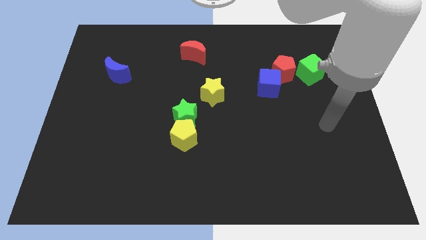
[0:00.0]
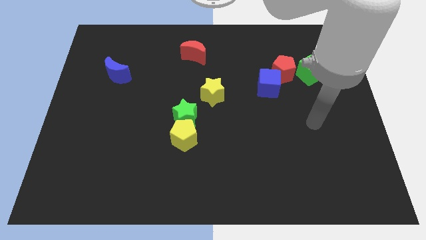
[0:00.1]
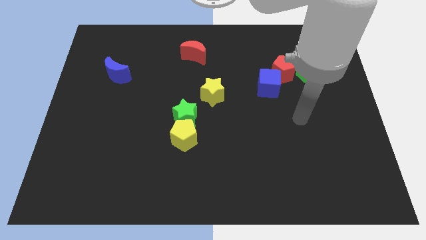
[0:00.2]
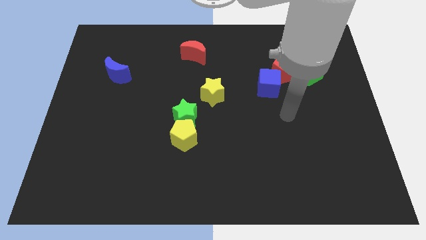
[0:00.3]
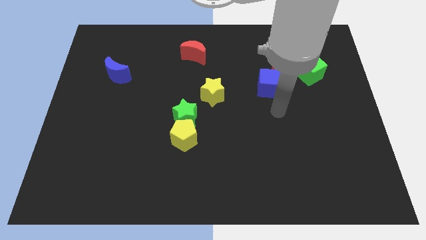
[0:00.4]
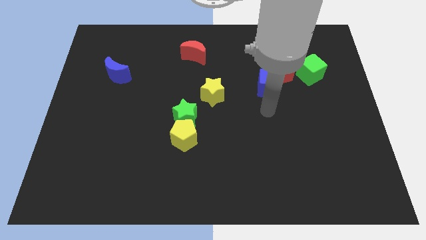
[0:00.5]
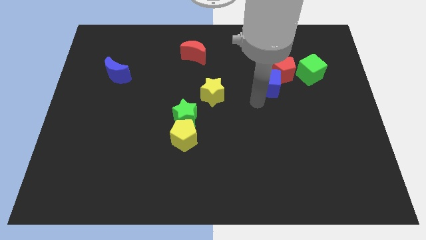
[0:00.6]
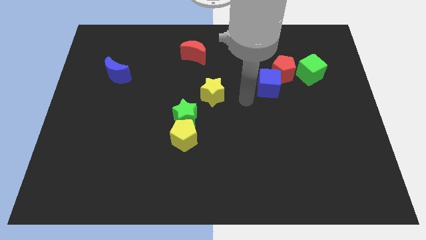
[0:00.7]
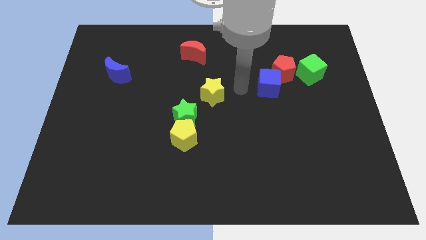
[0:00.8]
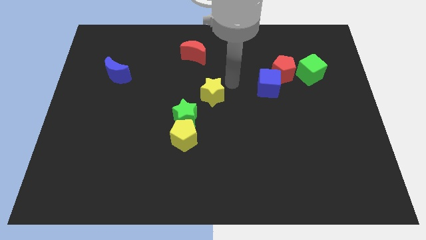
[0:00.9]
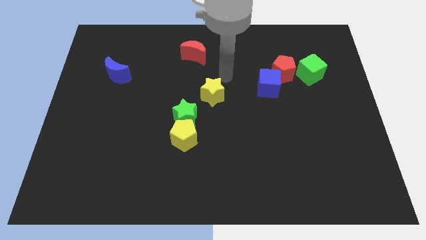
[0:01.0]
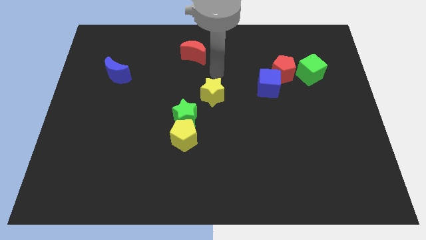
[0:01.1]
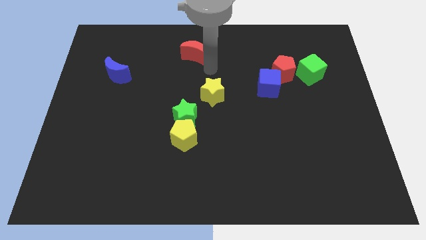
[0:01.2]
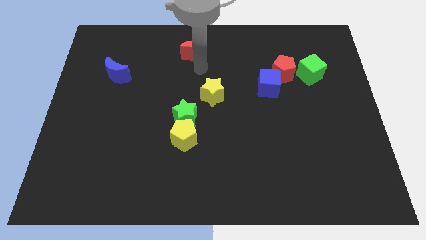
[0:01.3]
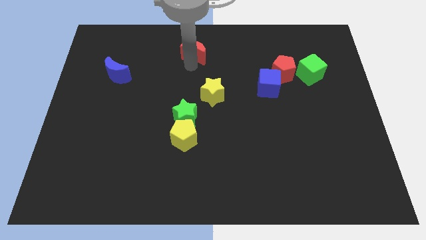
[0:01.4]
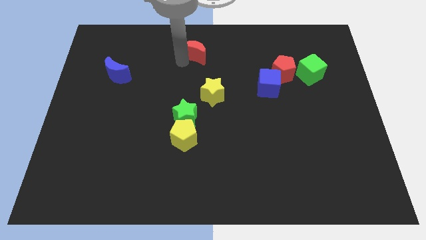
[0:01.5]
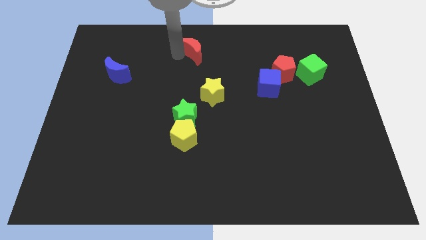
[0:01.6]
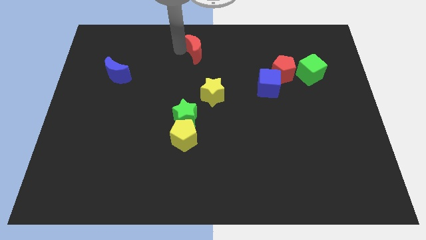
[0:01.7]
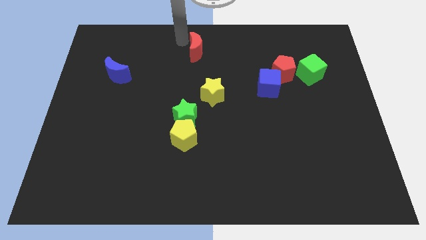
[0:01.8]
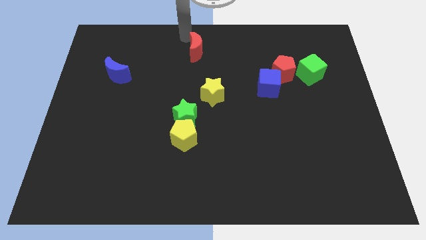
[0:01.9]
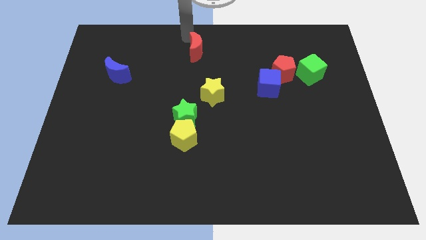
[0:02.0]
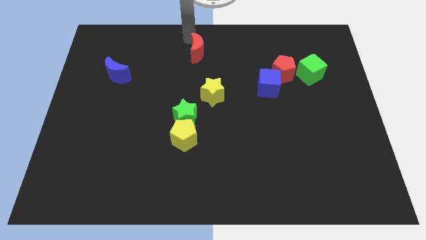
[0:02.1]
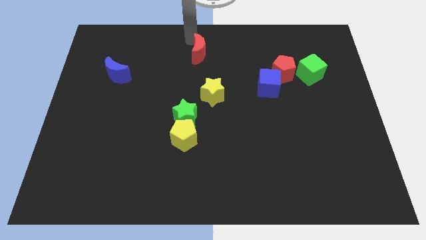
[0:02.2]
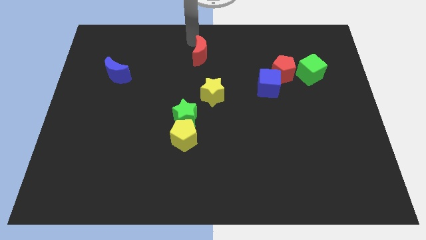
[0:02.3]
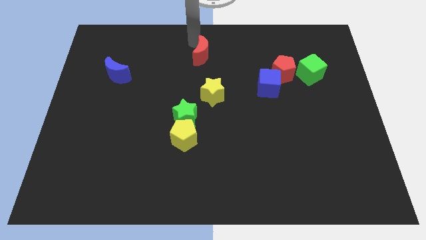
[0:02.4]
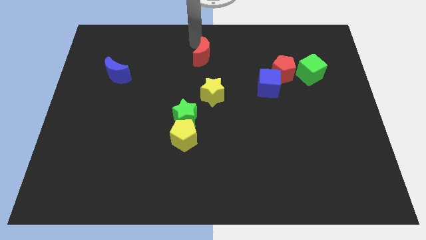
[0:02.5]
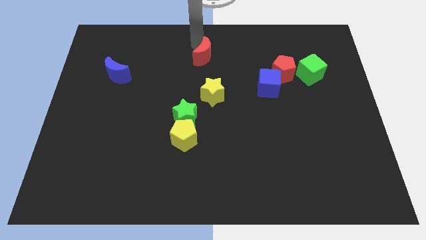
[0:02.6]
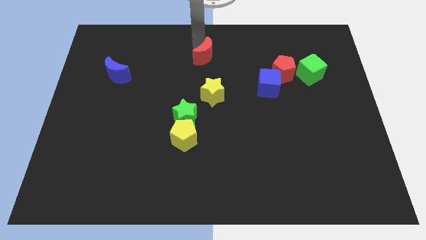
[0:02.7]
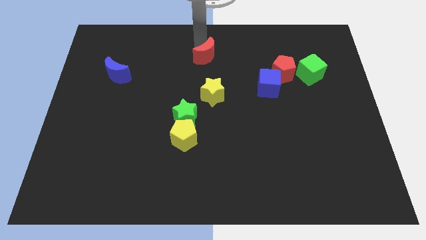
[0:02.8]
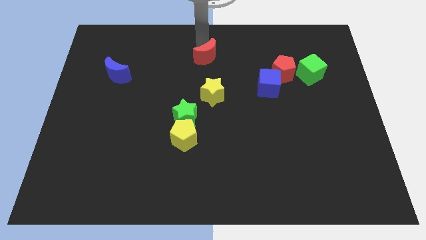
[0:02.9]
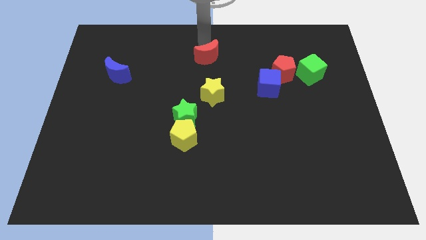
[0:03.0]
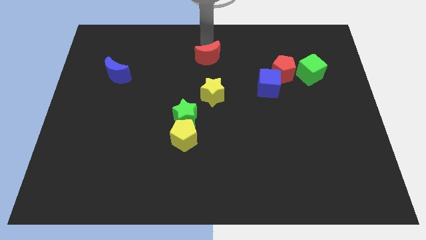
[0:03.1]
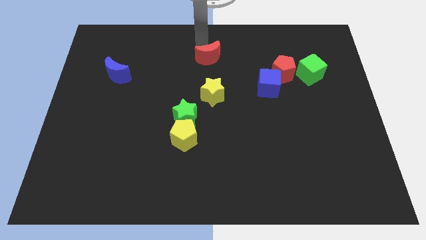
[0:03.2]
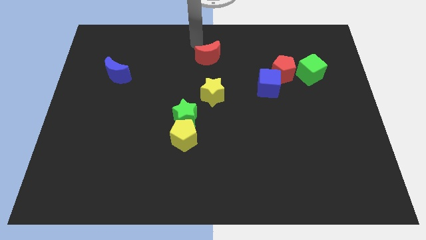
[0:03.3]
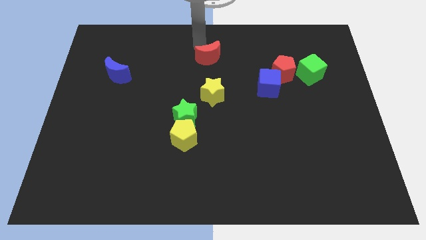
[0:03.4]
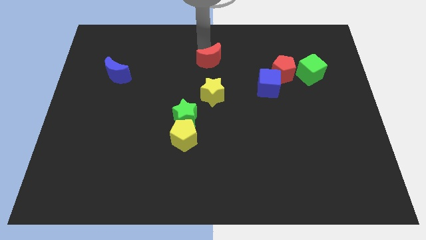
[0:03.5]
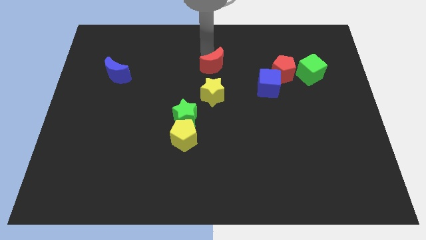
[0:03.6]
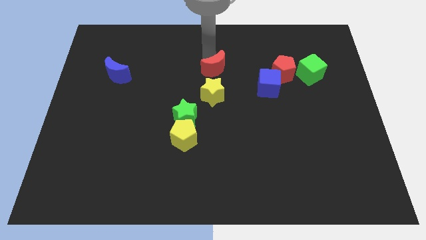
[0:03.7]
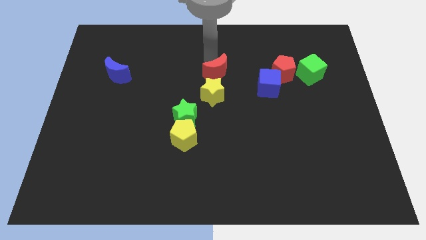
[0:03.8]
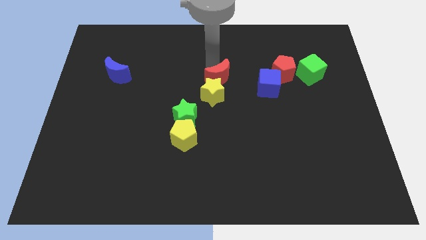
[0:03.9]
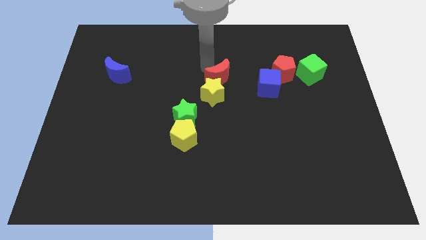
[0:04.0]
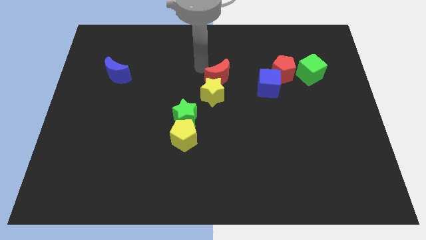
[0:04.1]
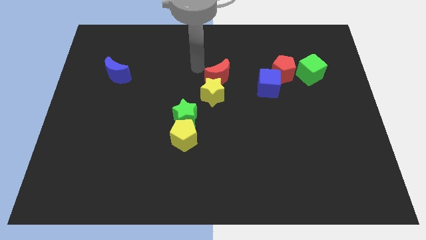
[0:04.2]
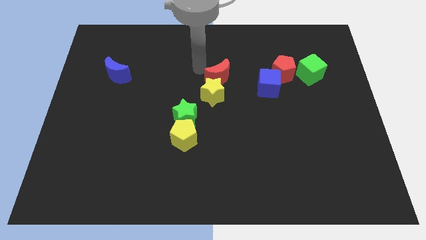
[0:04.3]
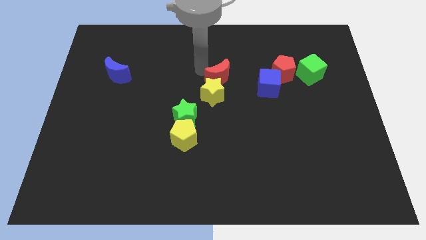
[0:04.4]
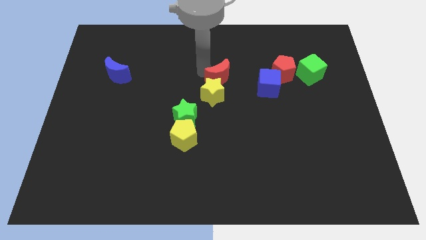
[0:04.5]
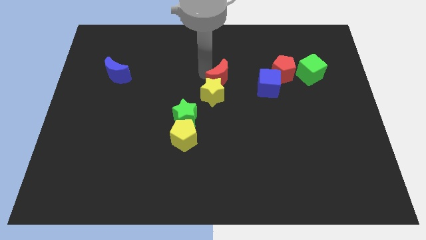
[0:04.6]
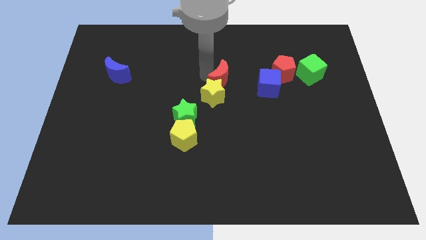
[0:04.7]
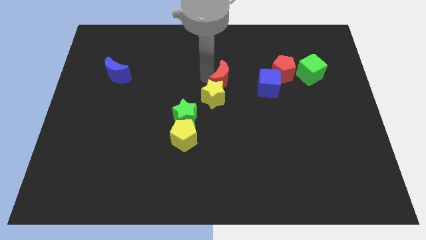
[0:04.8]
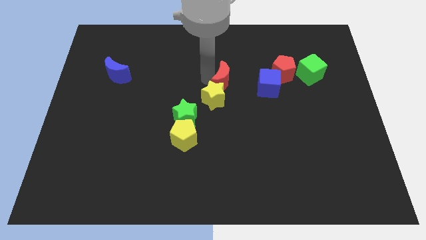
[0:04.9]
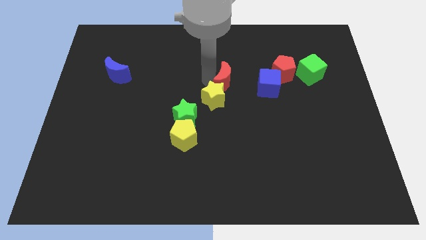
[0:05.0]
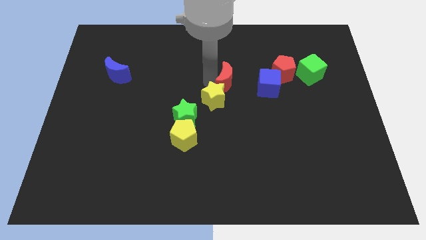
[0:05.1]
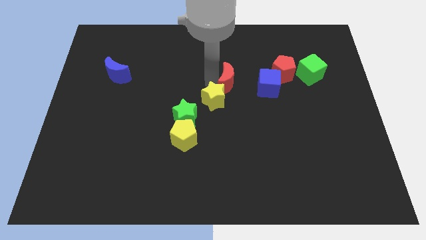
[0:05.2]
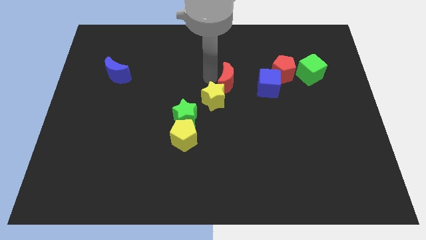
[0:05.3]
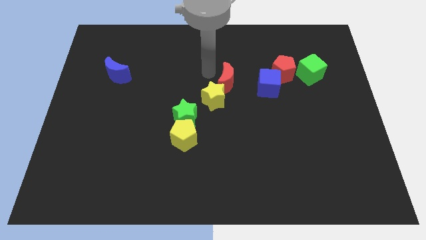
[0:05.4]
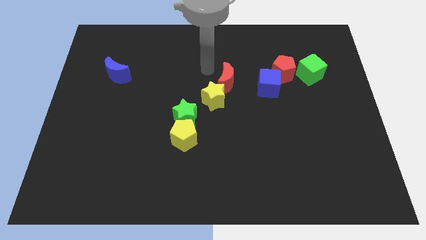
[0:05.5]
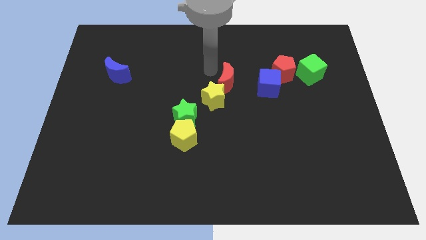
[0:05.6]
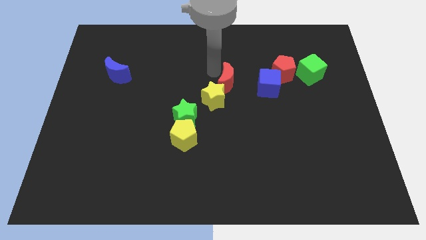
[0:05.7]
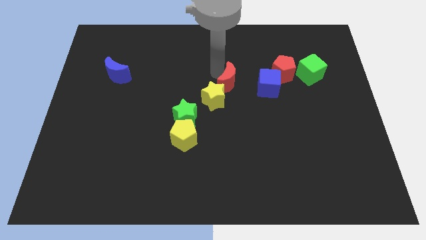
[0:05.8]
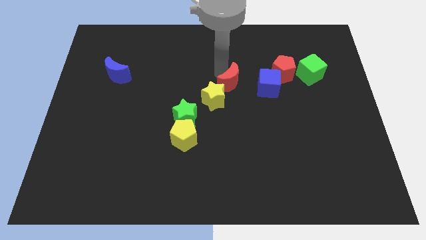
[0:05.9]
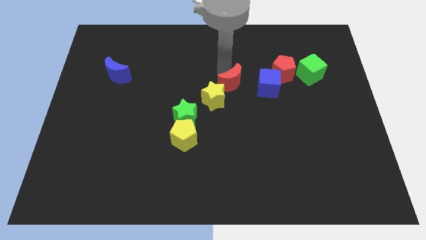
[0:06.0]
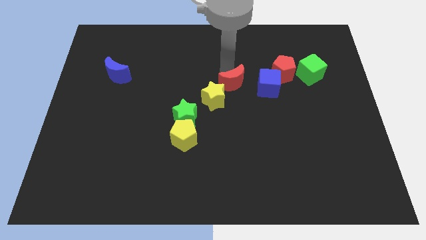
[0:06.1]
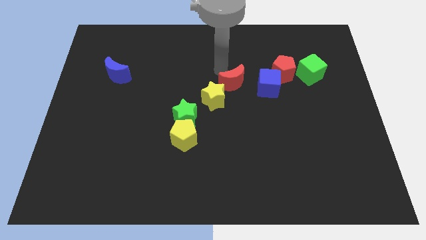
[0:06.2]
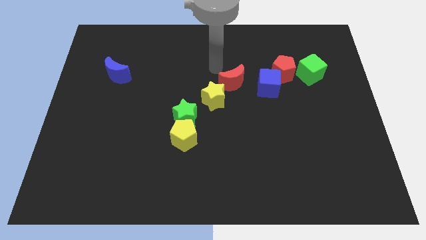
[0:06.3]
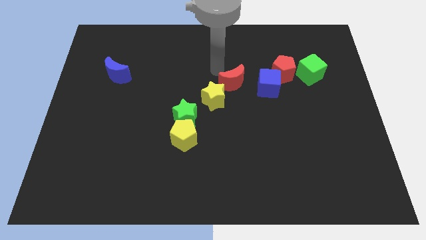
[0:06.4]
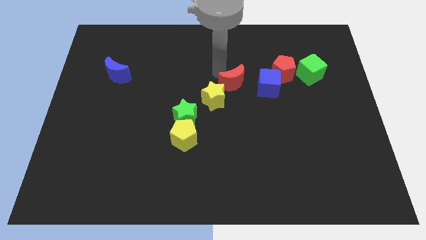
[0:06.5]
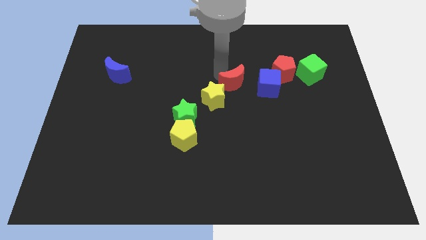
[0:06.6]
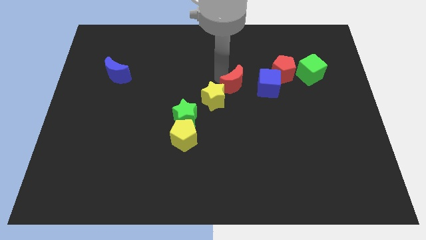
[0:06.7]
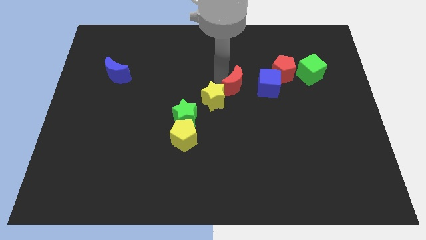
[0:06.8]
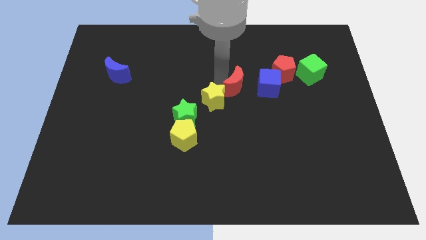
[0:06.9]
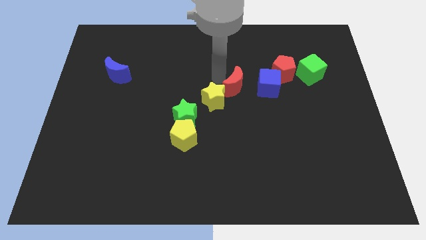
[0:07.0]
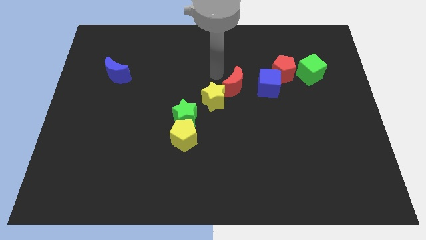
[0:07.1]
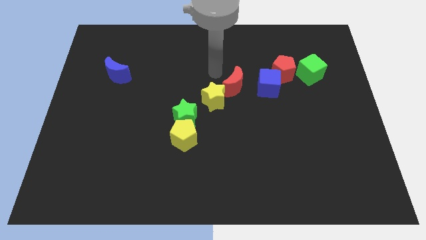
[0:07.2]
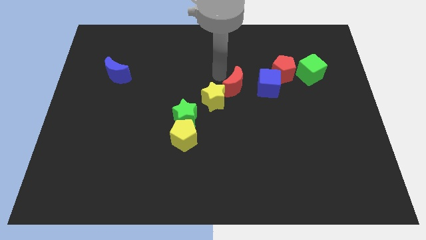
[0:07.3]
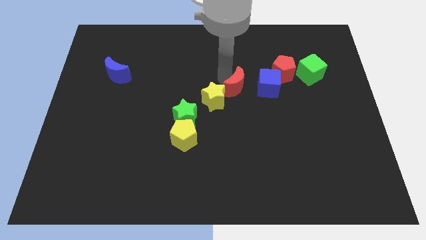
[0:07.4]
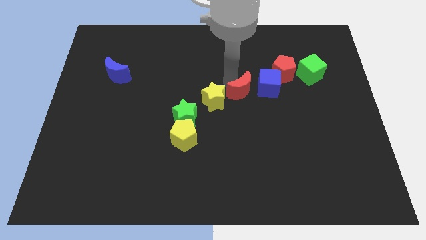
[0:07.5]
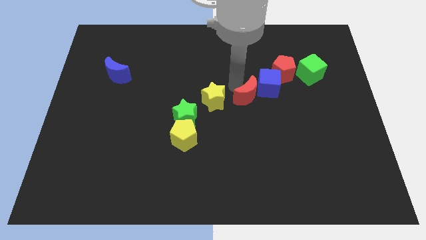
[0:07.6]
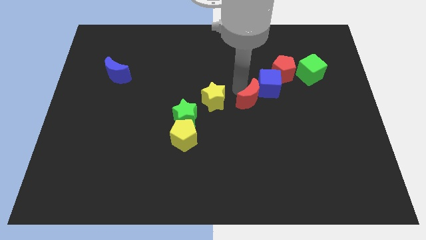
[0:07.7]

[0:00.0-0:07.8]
slide the red moon down and then to the right

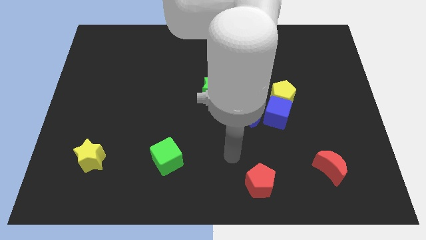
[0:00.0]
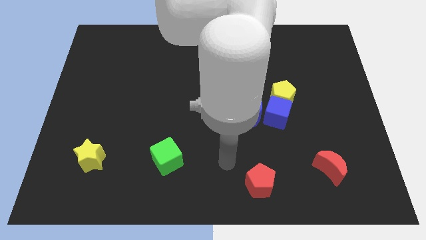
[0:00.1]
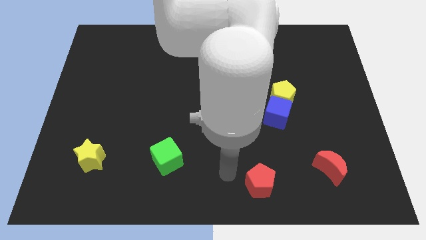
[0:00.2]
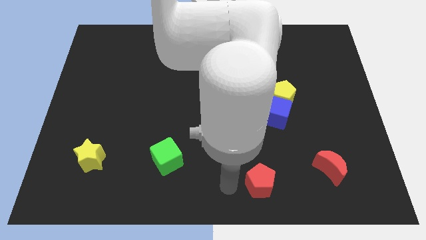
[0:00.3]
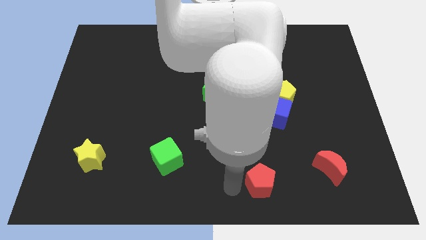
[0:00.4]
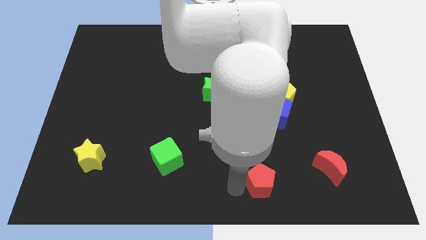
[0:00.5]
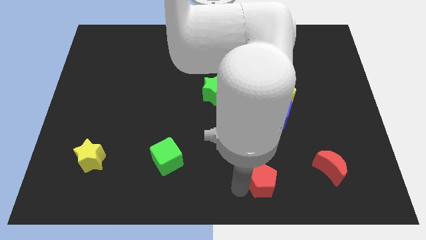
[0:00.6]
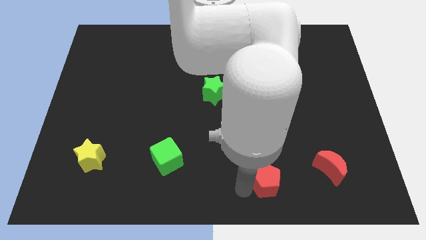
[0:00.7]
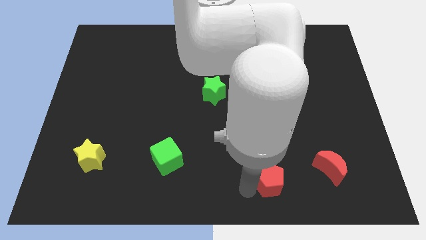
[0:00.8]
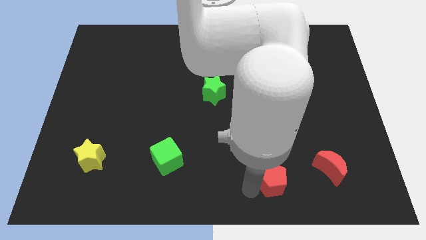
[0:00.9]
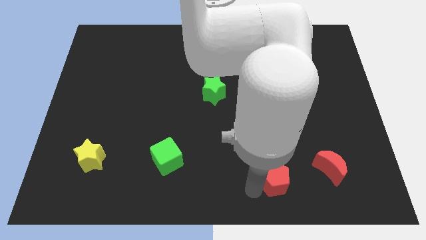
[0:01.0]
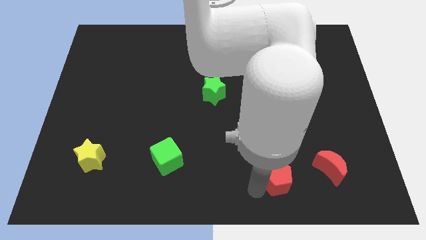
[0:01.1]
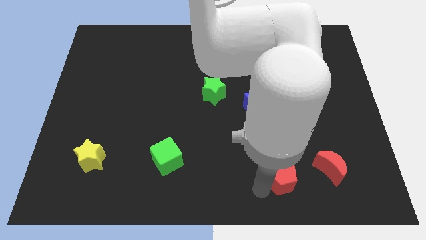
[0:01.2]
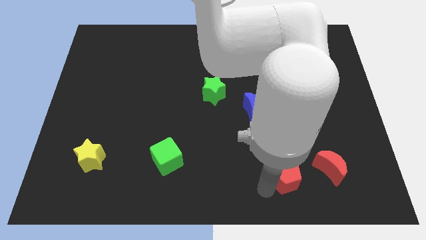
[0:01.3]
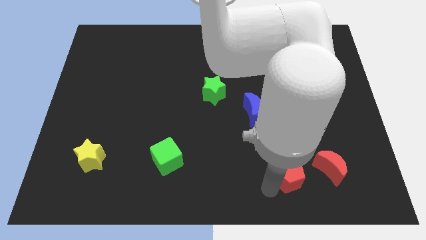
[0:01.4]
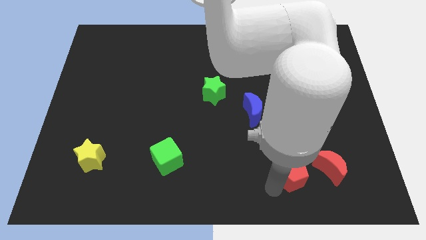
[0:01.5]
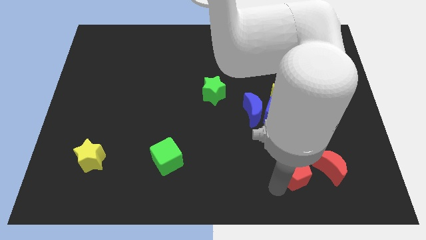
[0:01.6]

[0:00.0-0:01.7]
push the red pentagon to the right slightly
